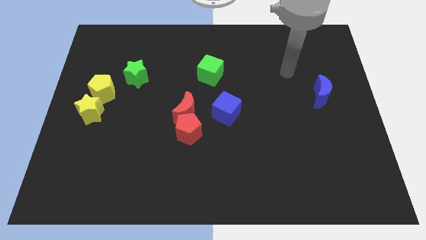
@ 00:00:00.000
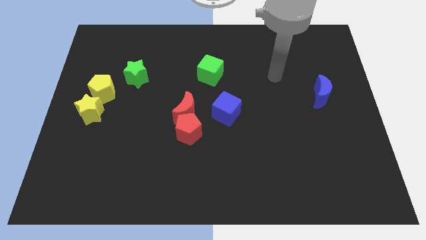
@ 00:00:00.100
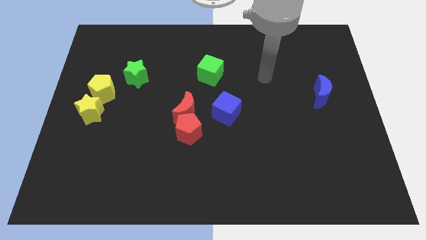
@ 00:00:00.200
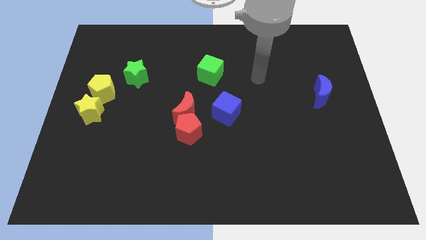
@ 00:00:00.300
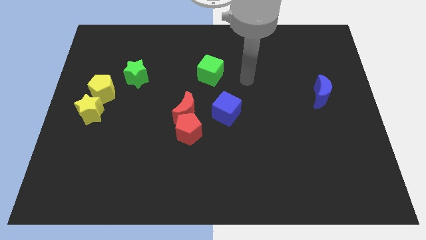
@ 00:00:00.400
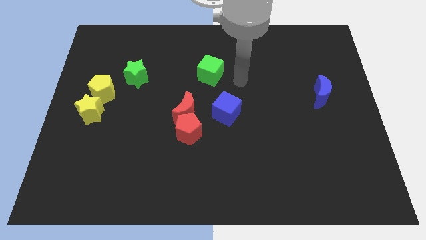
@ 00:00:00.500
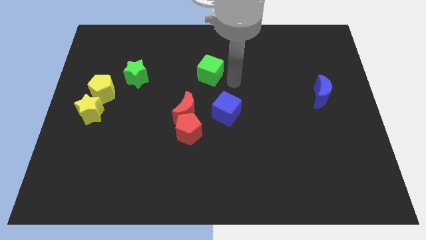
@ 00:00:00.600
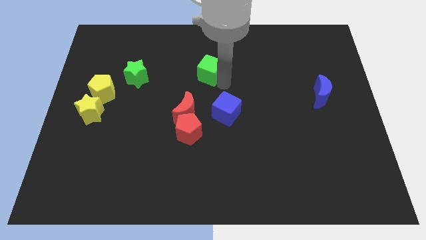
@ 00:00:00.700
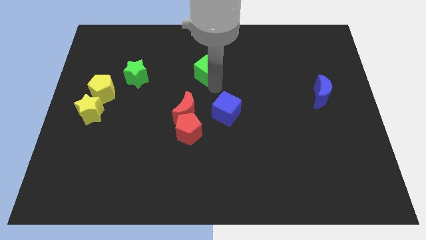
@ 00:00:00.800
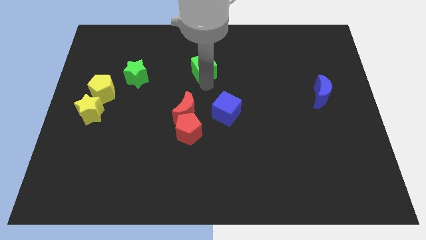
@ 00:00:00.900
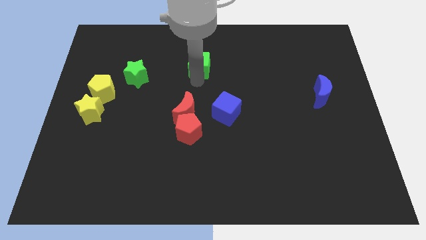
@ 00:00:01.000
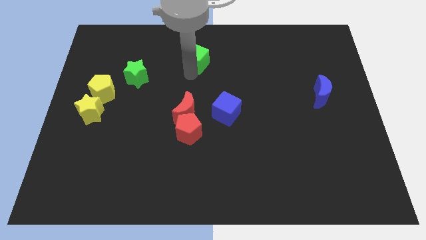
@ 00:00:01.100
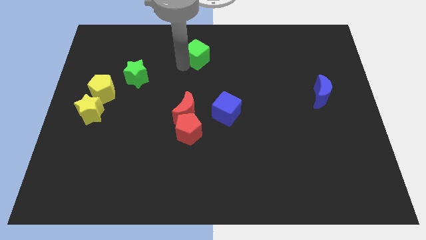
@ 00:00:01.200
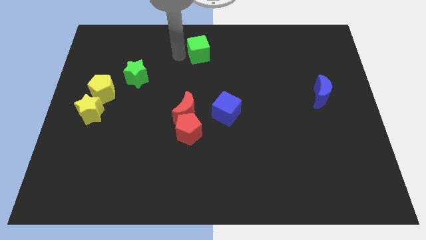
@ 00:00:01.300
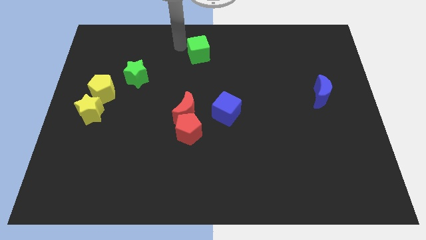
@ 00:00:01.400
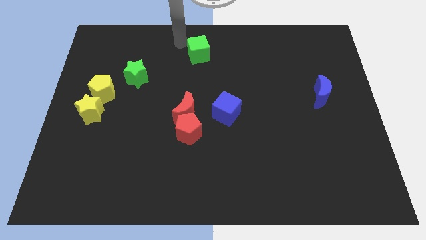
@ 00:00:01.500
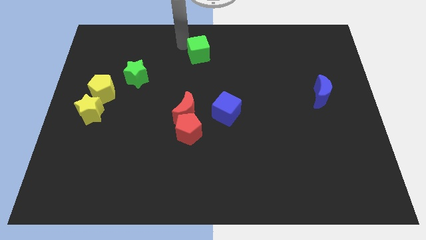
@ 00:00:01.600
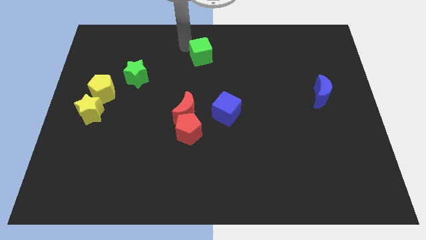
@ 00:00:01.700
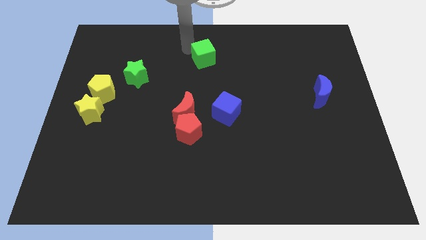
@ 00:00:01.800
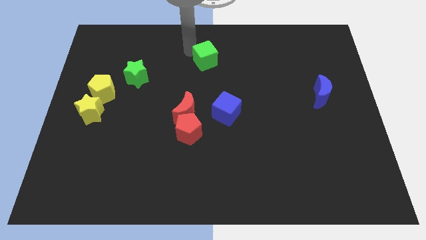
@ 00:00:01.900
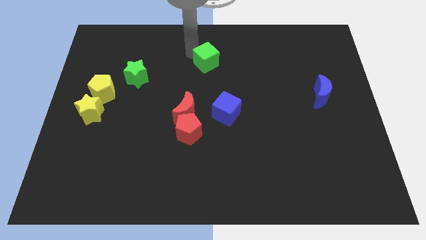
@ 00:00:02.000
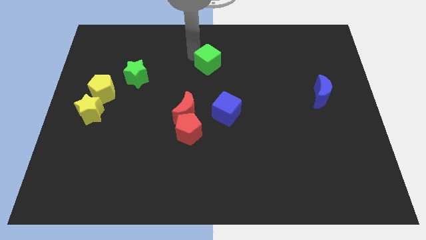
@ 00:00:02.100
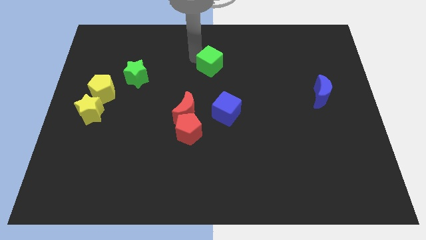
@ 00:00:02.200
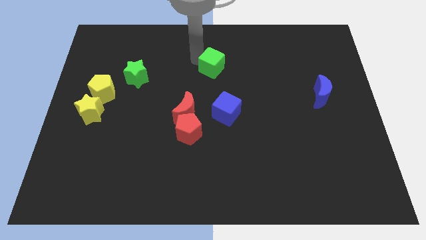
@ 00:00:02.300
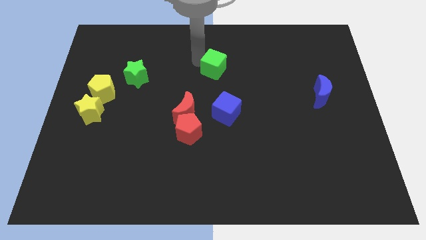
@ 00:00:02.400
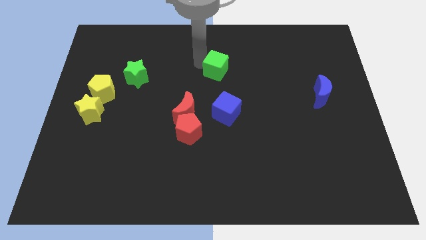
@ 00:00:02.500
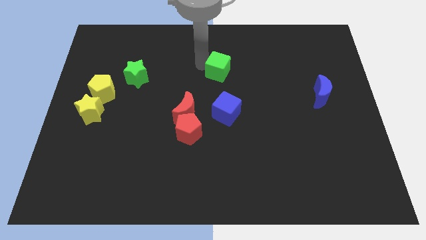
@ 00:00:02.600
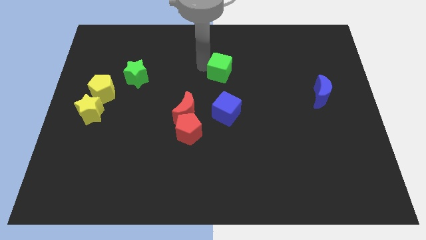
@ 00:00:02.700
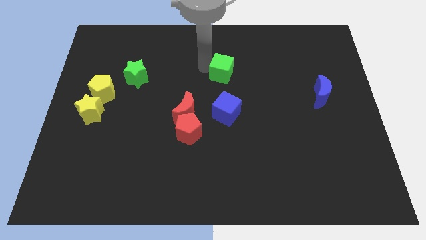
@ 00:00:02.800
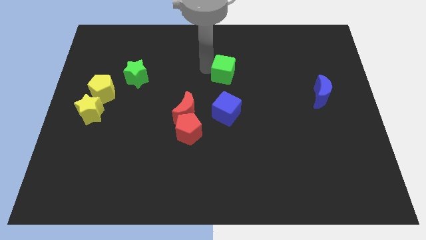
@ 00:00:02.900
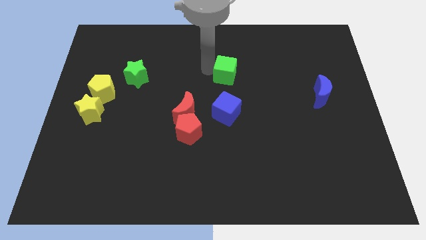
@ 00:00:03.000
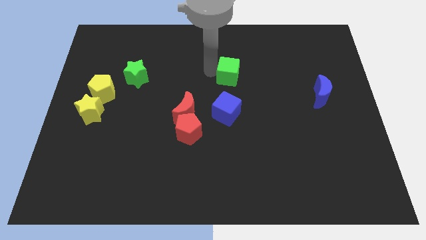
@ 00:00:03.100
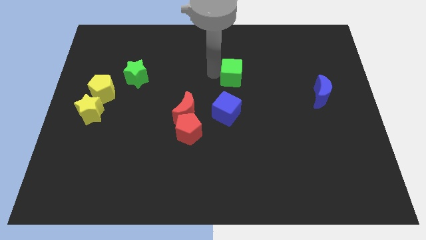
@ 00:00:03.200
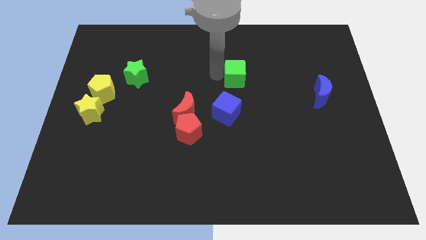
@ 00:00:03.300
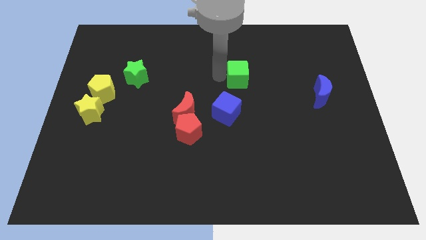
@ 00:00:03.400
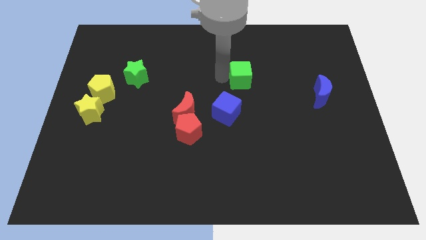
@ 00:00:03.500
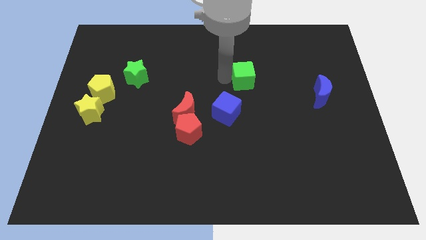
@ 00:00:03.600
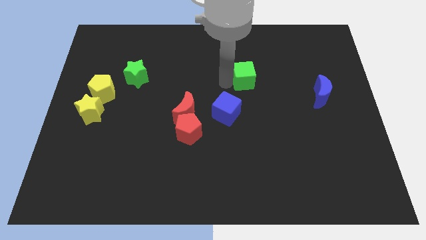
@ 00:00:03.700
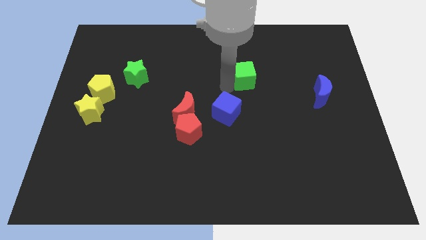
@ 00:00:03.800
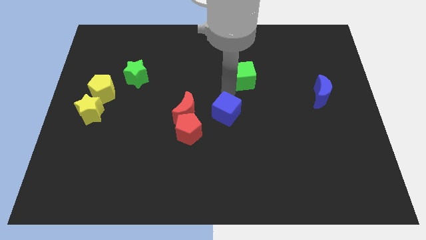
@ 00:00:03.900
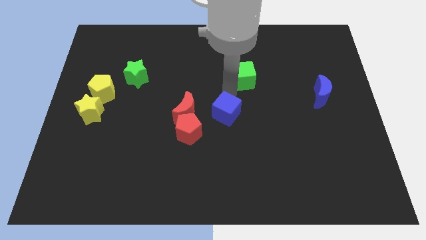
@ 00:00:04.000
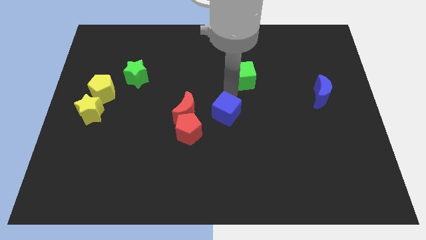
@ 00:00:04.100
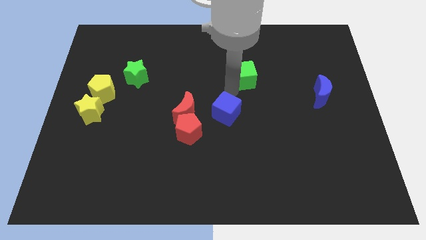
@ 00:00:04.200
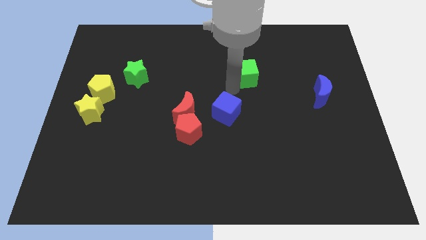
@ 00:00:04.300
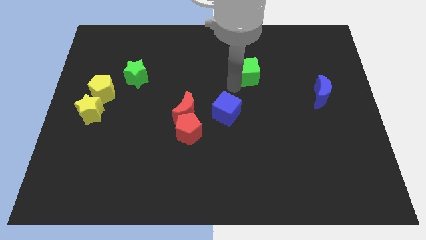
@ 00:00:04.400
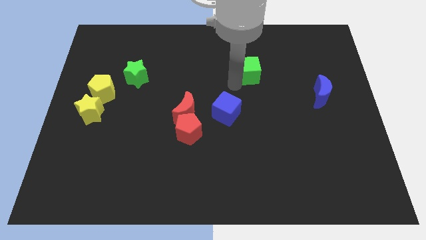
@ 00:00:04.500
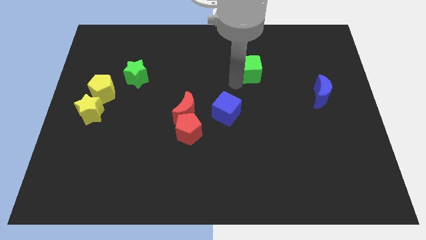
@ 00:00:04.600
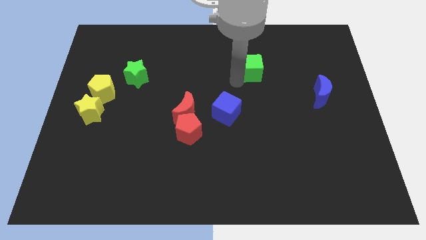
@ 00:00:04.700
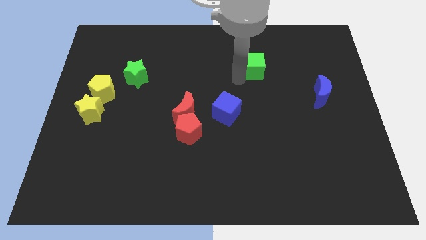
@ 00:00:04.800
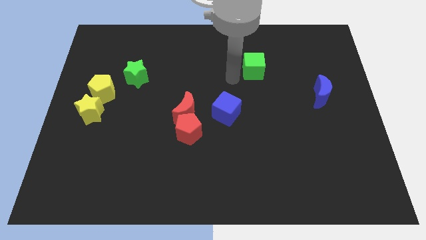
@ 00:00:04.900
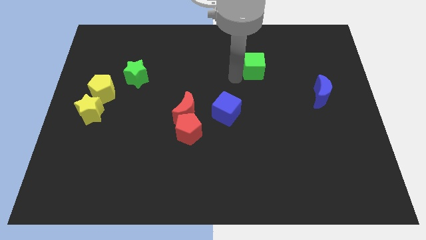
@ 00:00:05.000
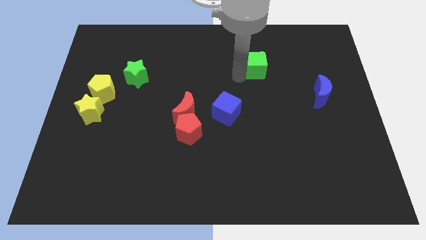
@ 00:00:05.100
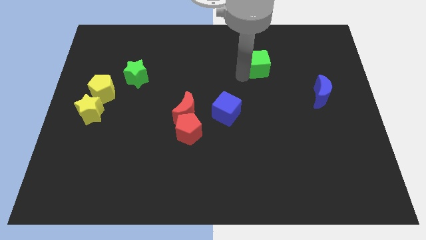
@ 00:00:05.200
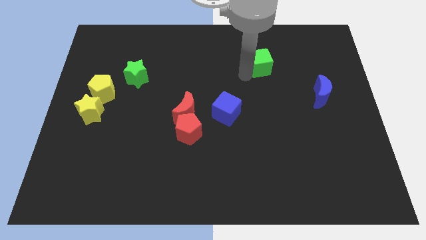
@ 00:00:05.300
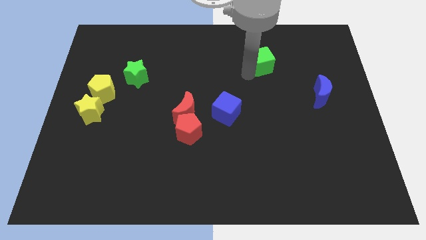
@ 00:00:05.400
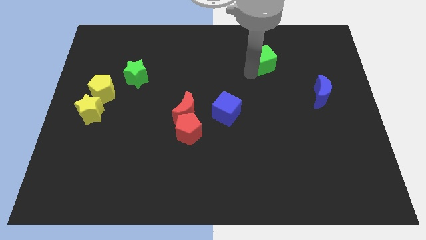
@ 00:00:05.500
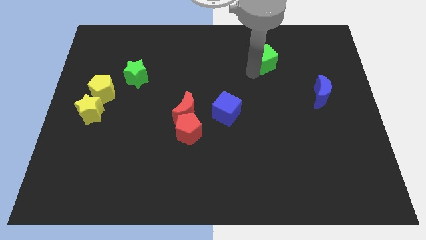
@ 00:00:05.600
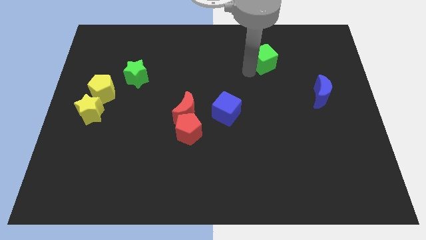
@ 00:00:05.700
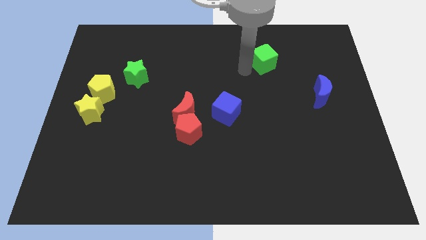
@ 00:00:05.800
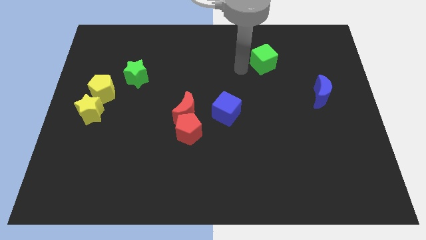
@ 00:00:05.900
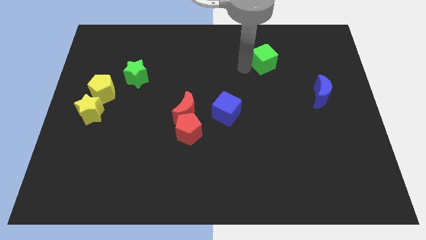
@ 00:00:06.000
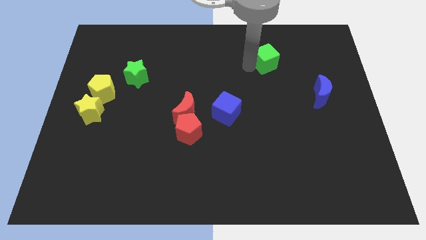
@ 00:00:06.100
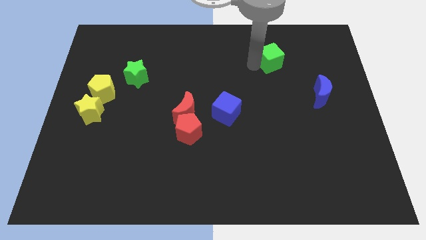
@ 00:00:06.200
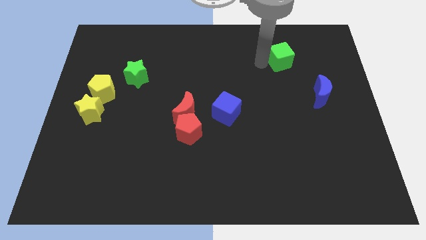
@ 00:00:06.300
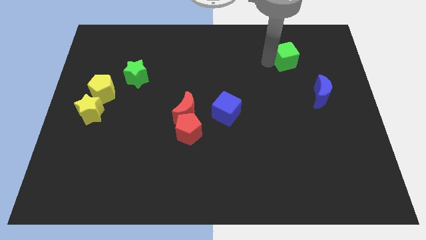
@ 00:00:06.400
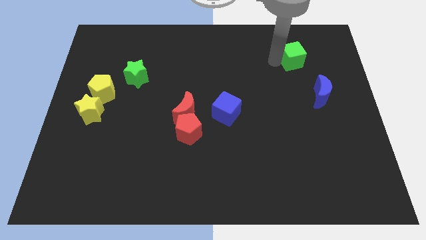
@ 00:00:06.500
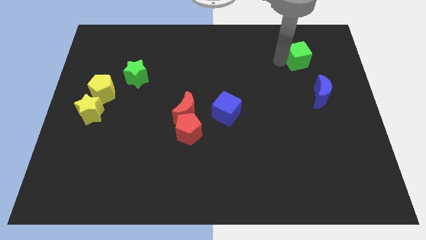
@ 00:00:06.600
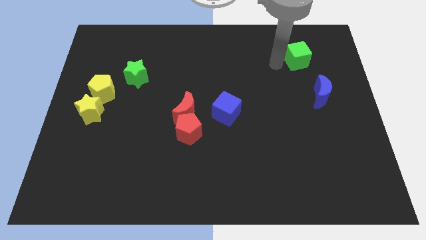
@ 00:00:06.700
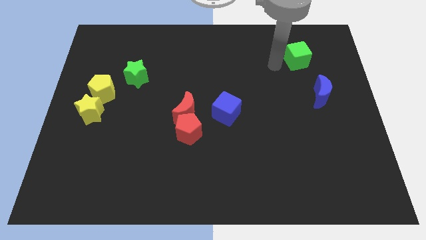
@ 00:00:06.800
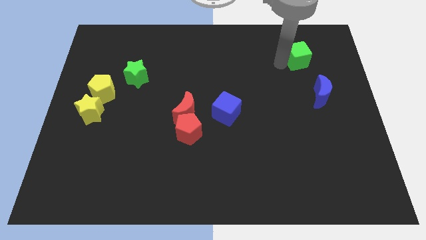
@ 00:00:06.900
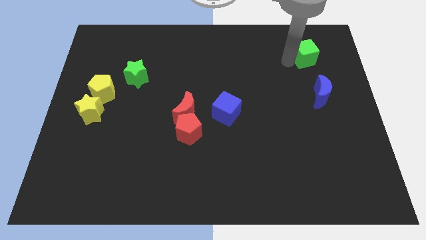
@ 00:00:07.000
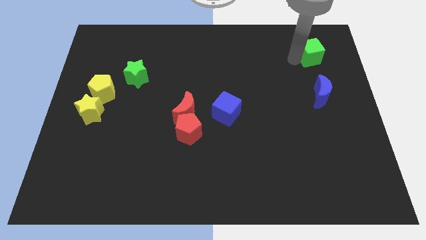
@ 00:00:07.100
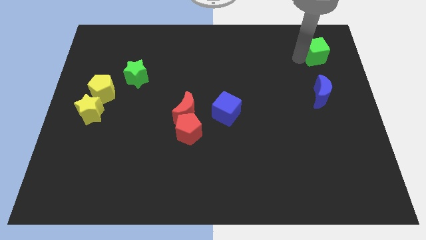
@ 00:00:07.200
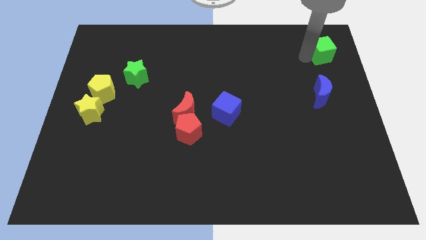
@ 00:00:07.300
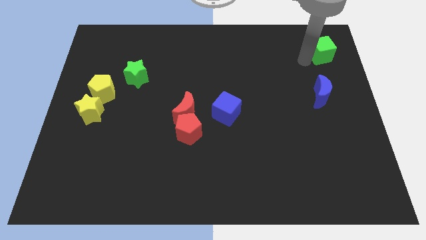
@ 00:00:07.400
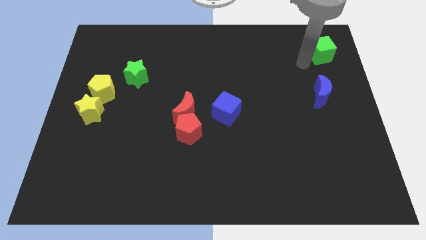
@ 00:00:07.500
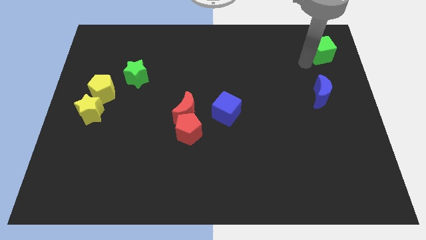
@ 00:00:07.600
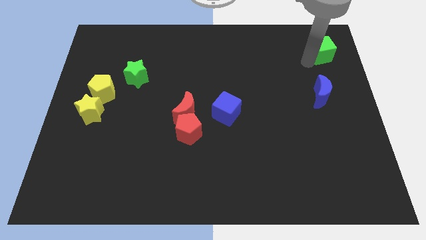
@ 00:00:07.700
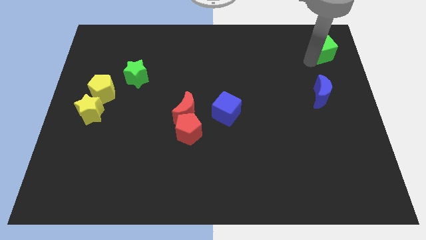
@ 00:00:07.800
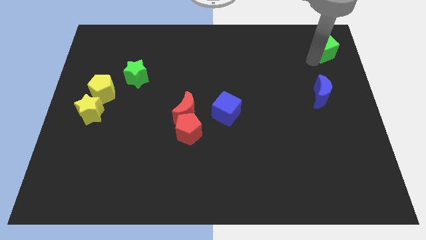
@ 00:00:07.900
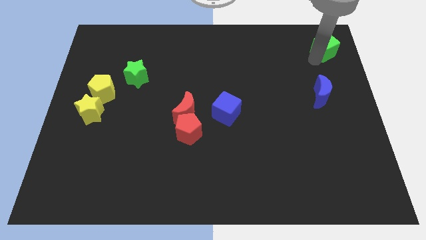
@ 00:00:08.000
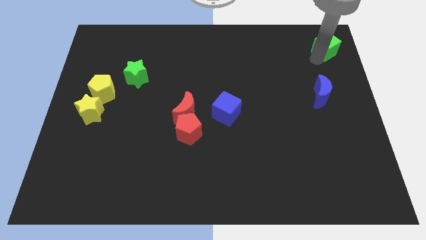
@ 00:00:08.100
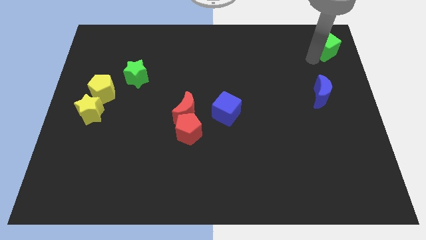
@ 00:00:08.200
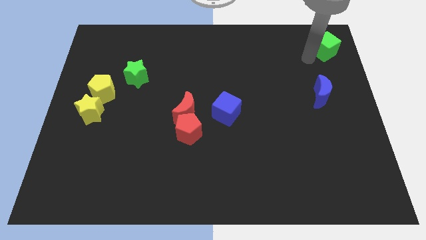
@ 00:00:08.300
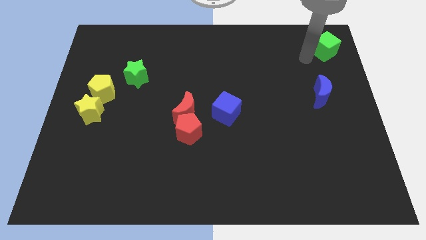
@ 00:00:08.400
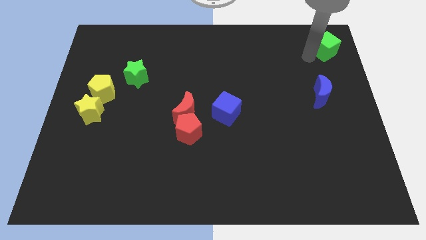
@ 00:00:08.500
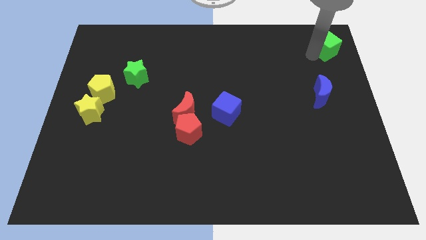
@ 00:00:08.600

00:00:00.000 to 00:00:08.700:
slide the green cube to the top right
